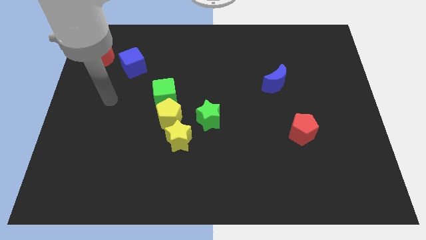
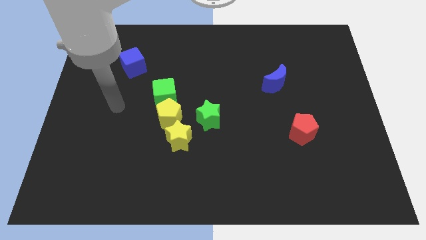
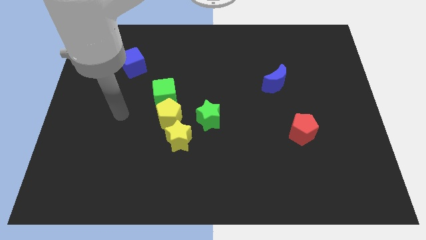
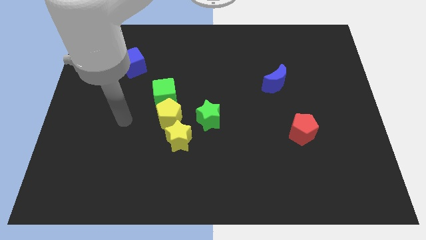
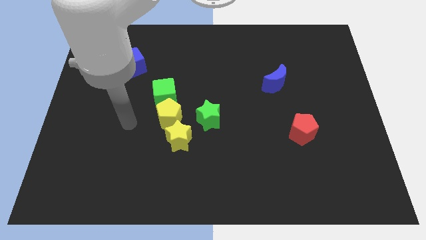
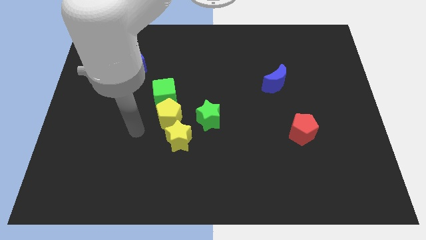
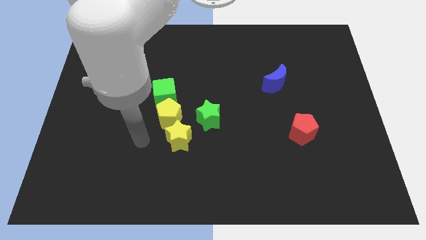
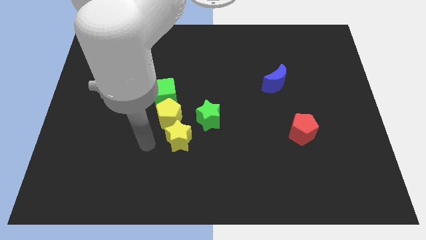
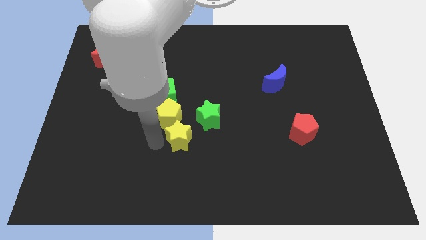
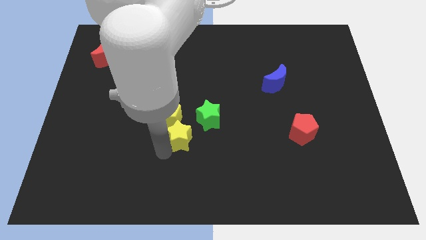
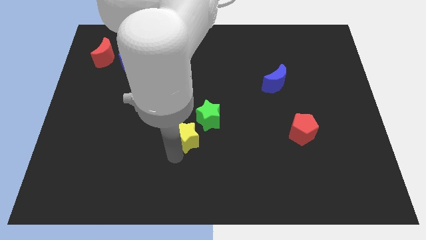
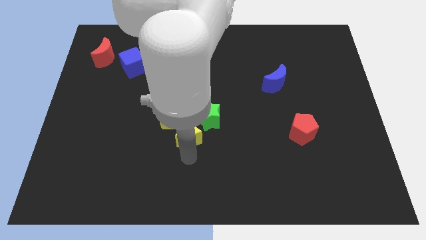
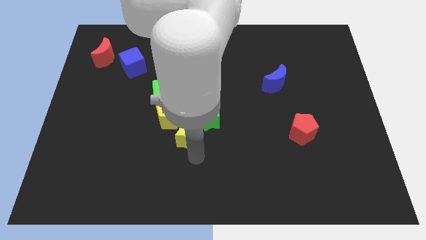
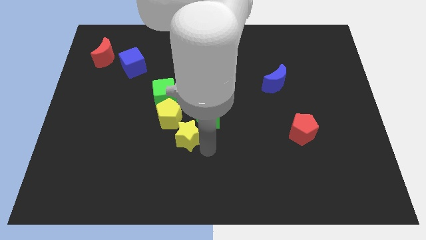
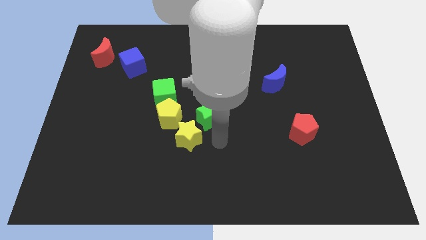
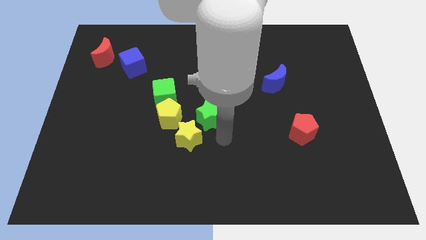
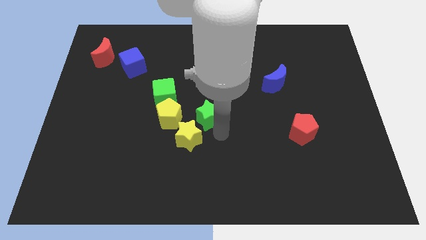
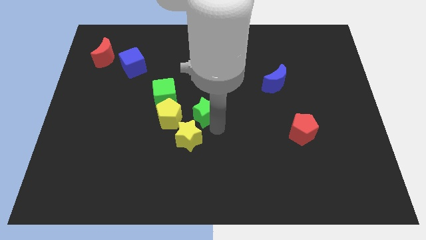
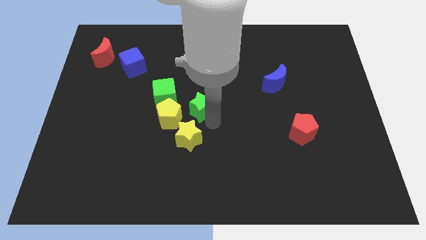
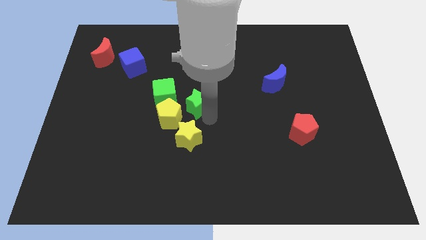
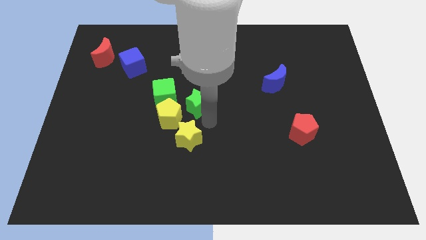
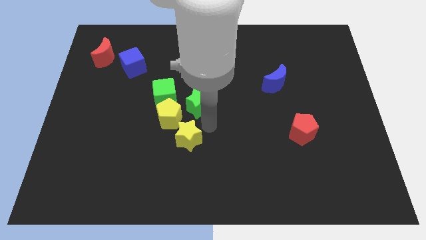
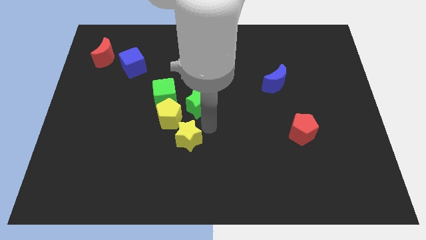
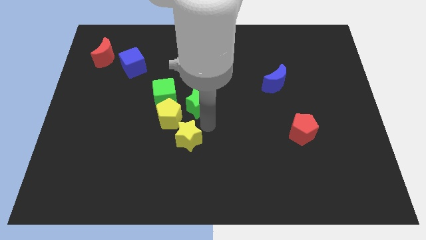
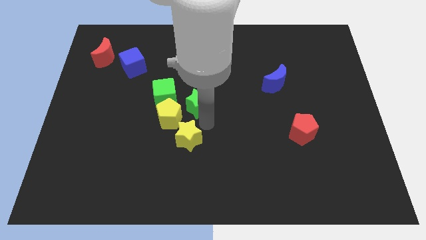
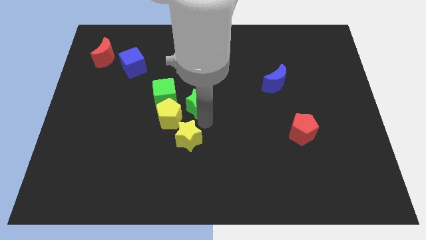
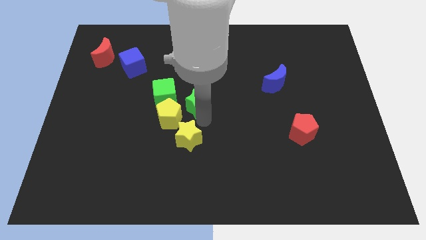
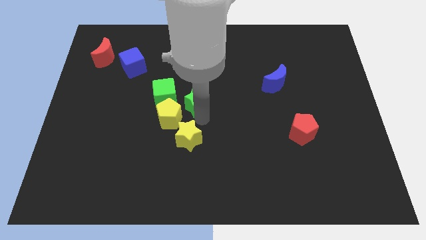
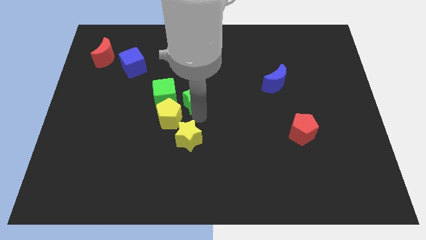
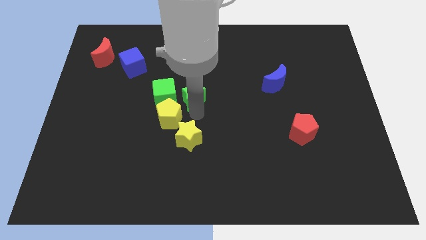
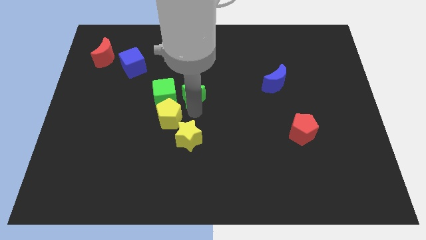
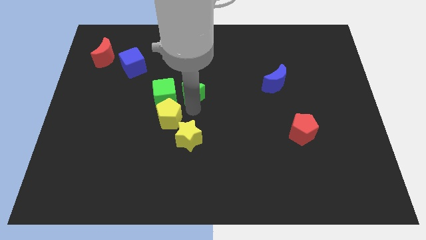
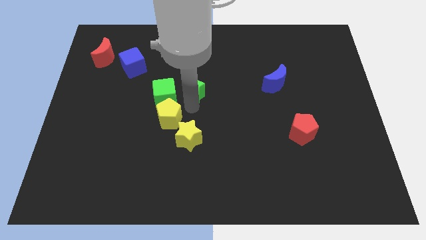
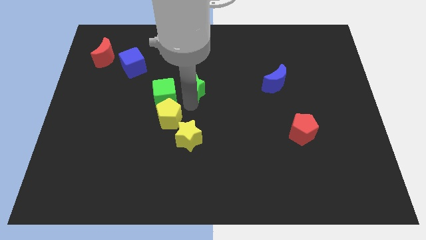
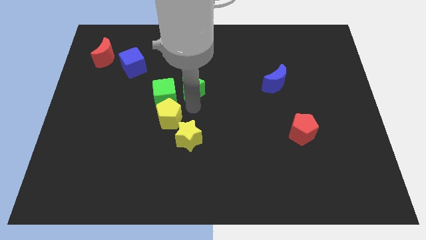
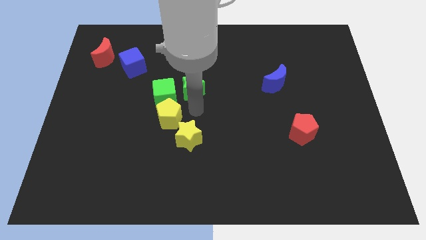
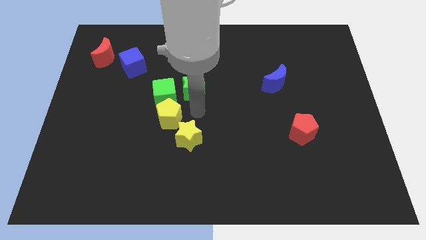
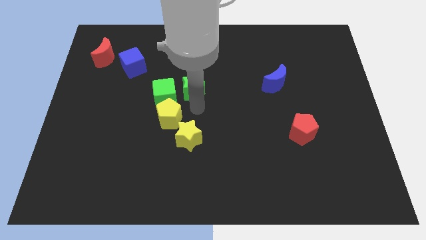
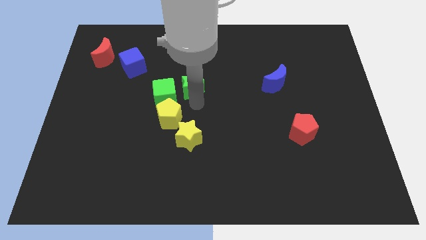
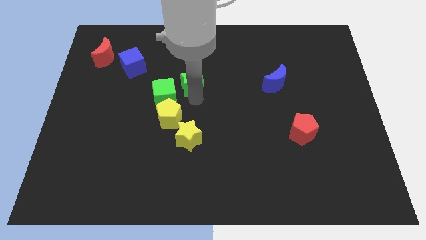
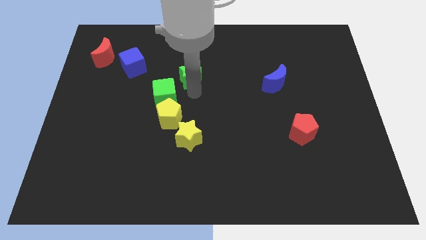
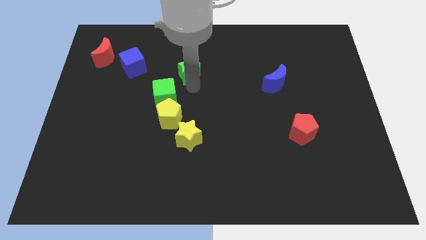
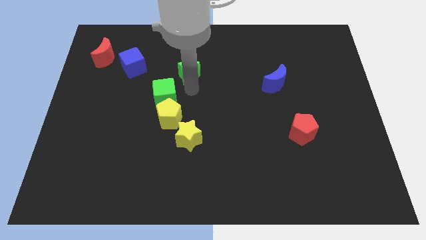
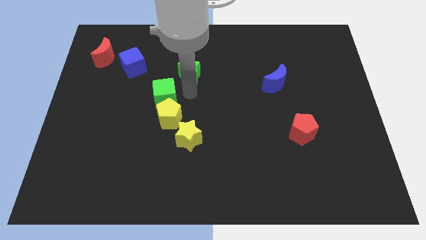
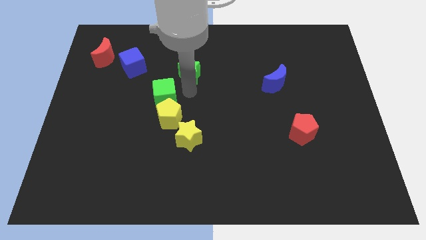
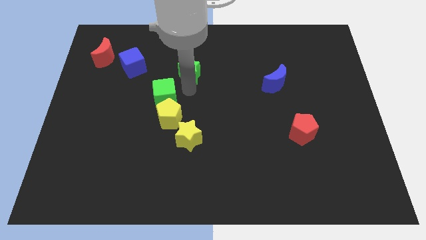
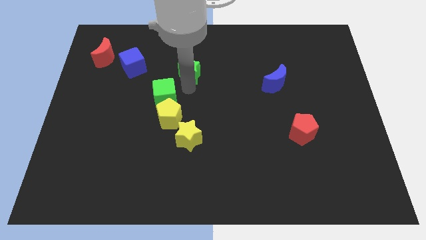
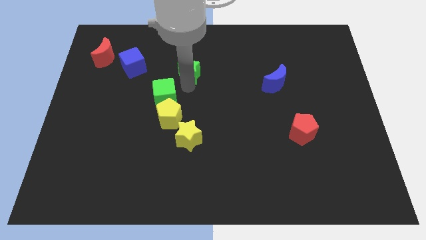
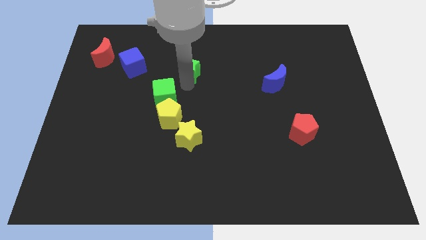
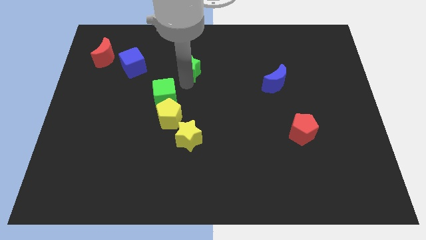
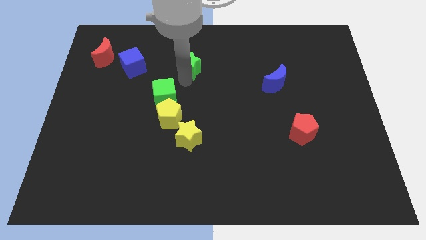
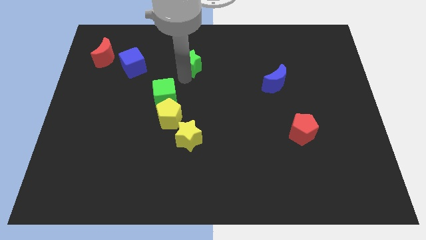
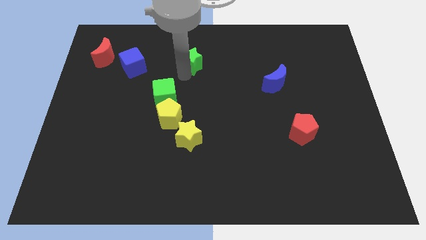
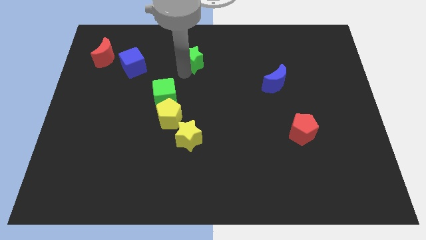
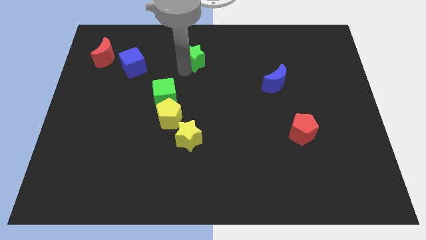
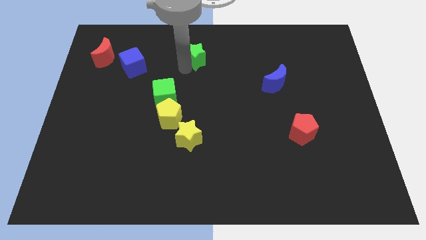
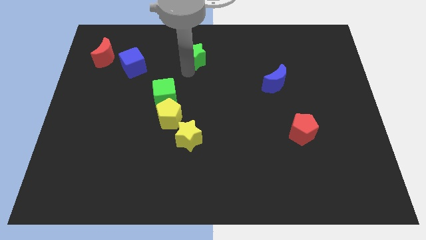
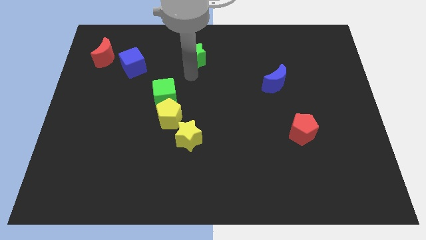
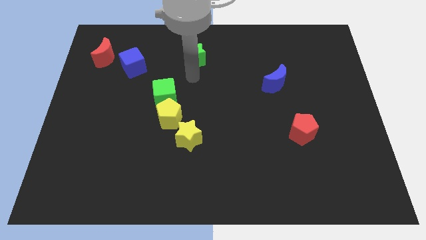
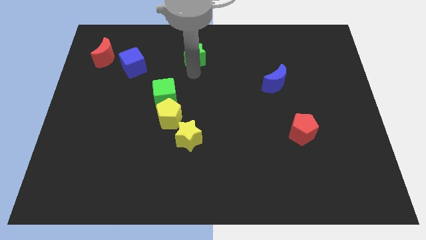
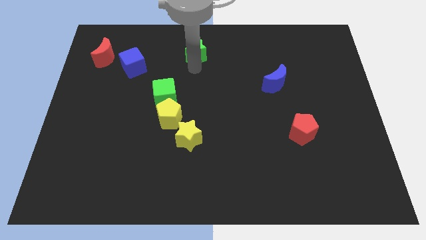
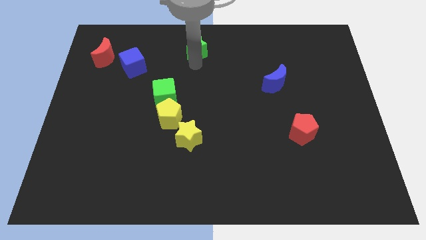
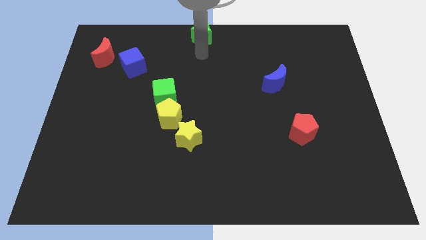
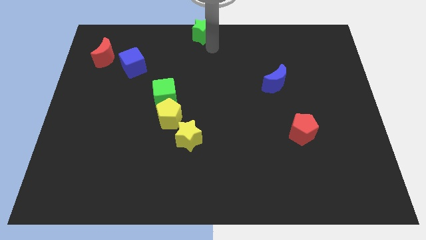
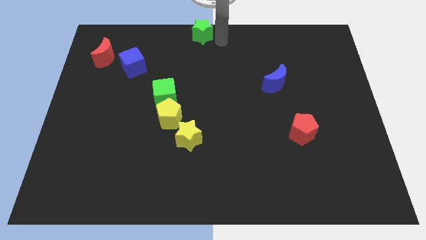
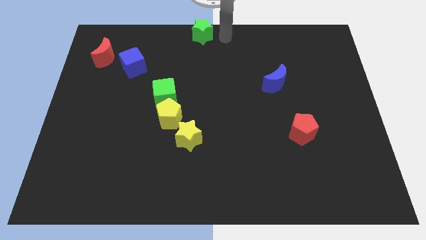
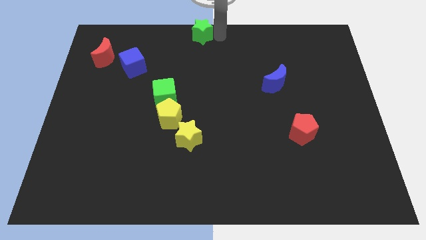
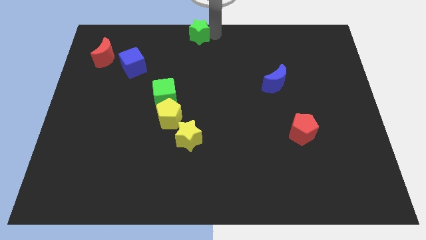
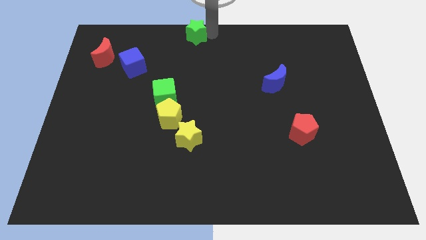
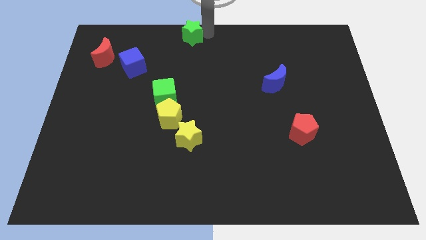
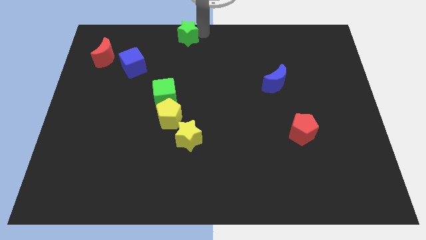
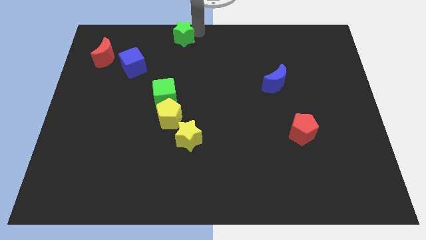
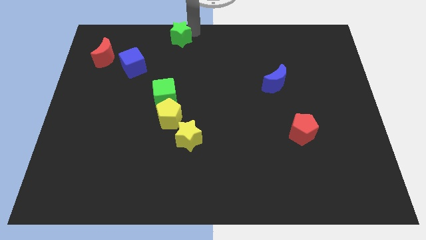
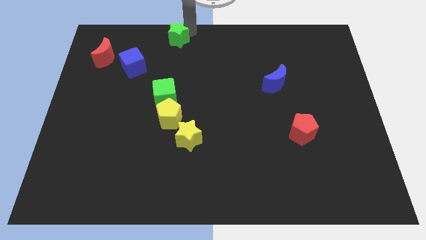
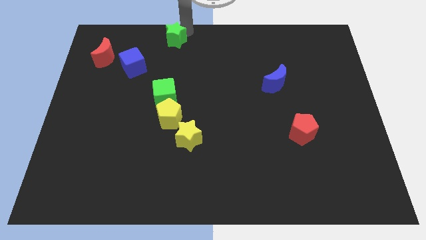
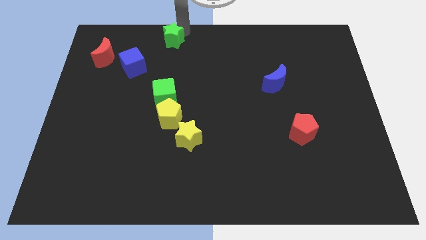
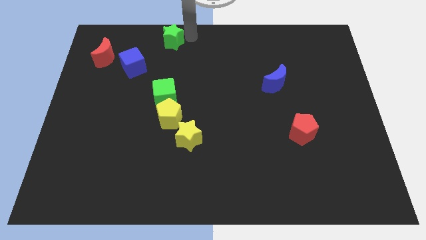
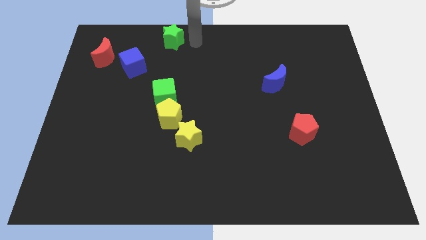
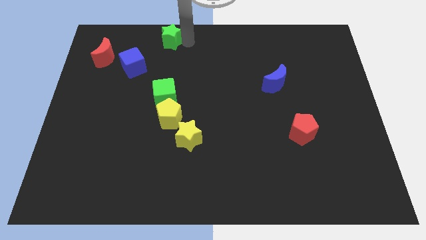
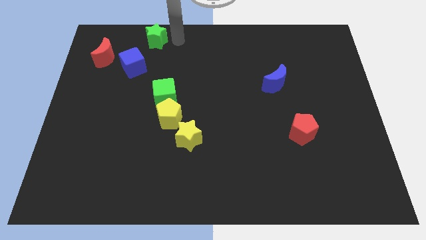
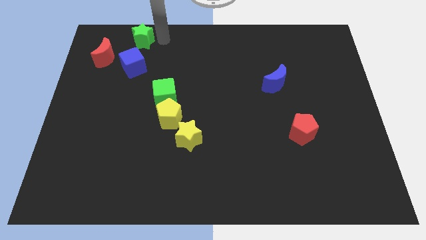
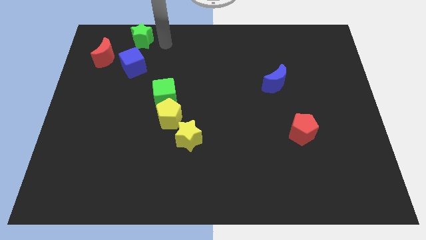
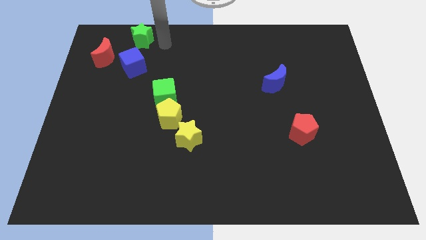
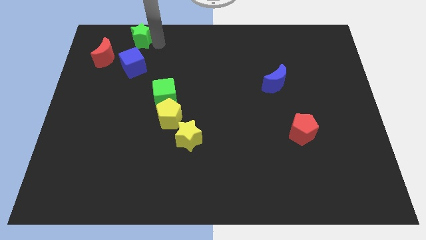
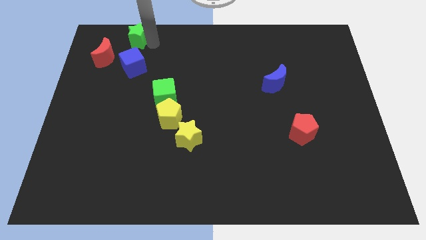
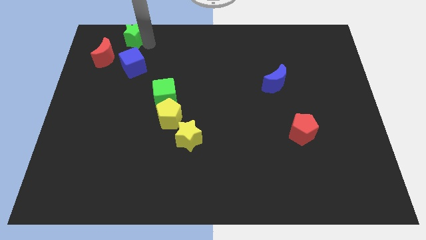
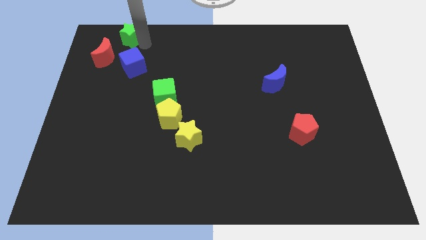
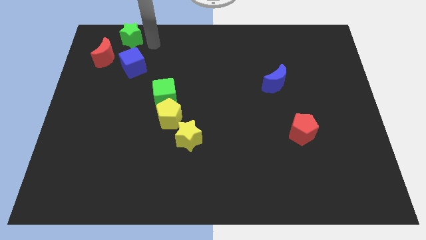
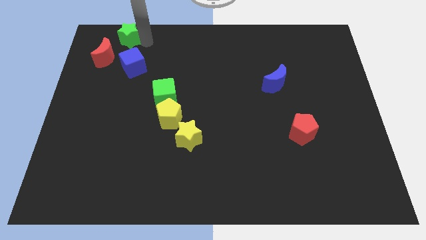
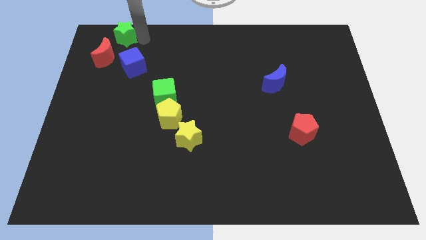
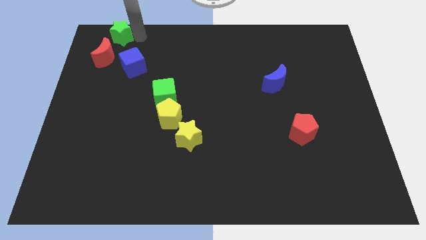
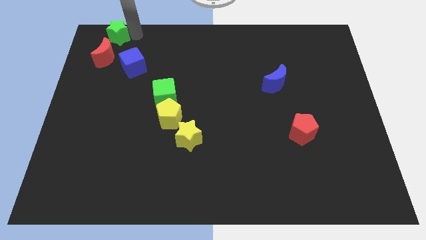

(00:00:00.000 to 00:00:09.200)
put the green star to the top left of the board
